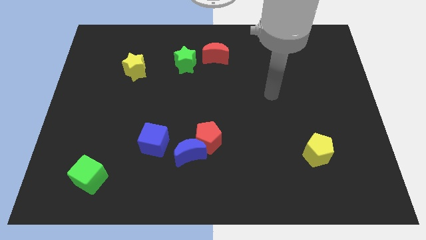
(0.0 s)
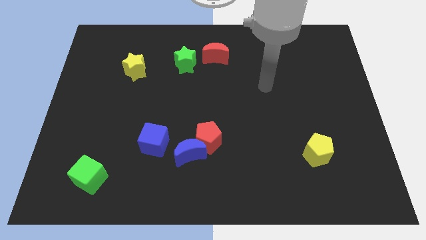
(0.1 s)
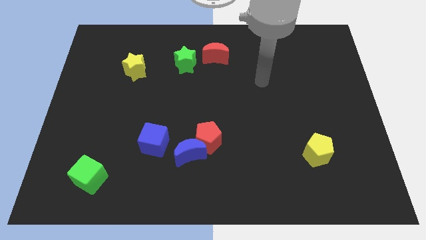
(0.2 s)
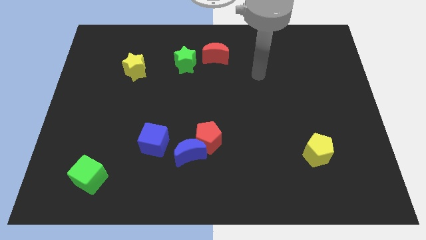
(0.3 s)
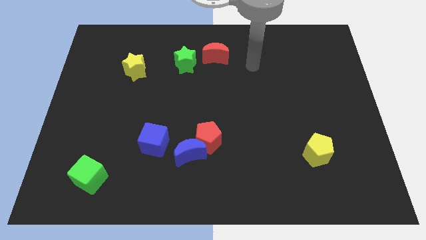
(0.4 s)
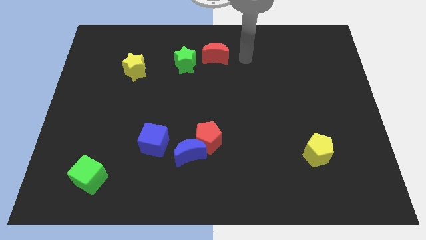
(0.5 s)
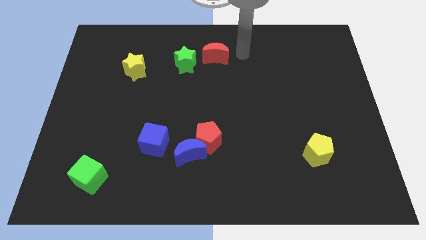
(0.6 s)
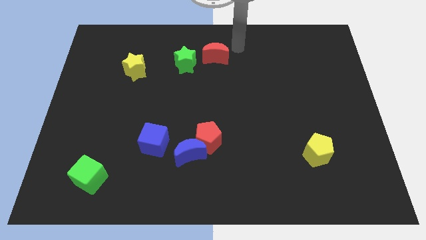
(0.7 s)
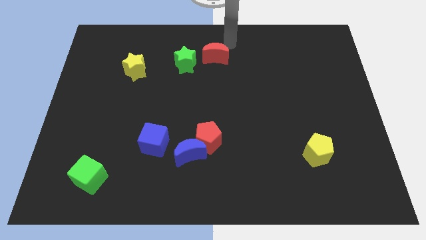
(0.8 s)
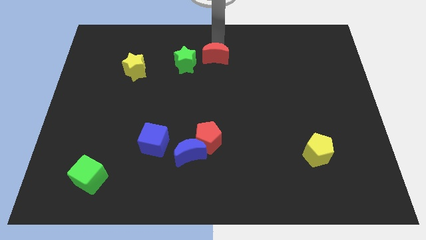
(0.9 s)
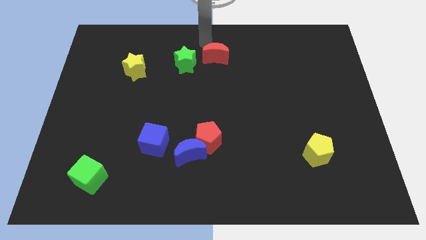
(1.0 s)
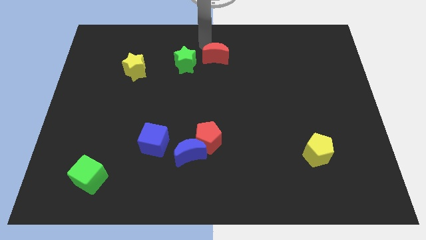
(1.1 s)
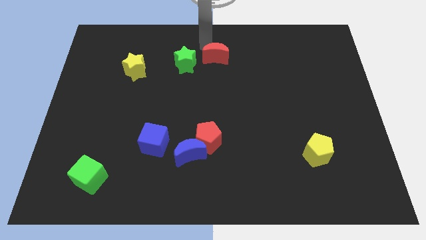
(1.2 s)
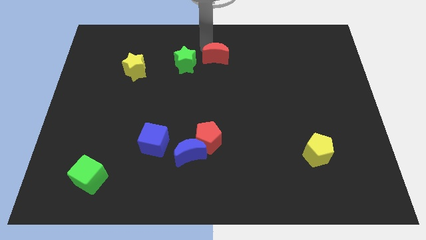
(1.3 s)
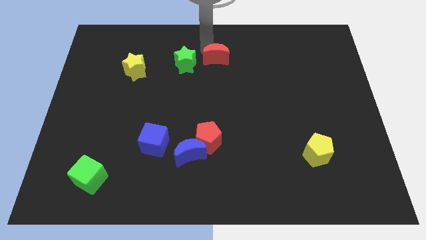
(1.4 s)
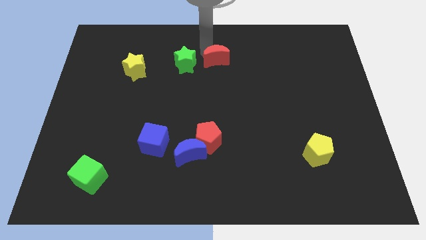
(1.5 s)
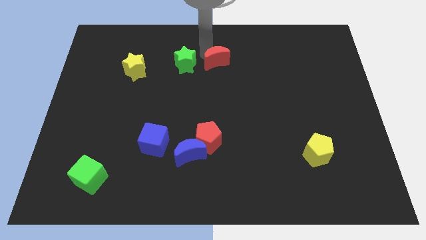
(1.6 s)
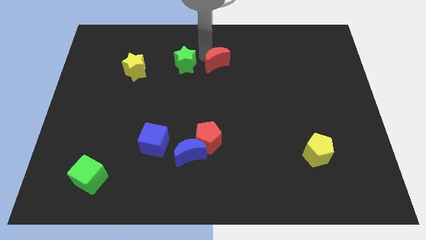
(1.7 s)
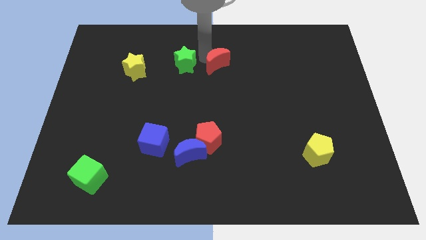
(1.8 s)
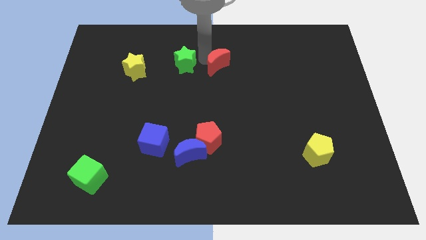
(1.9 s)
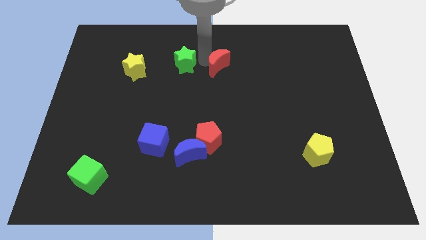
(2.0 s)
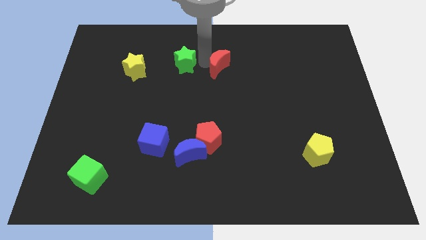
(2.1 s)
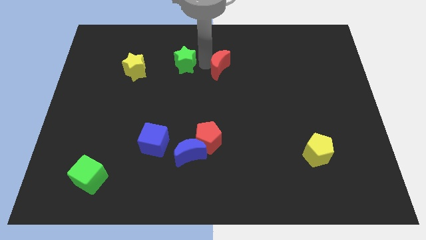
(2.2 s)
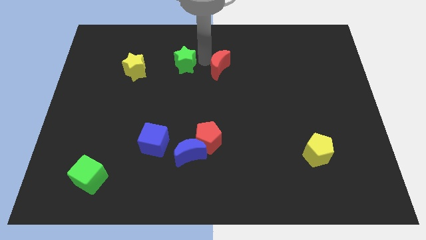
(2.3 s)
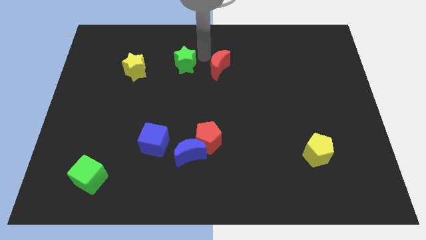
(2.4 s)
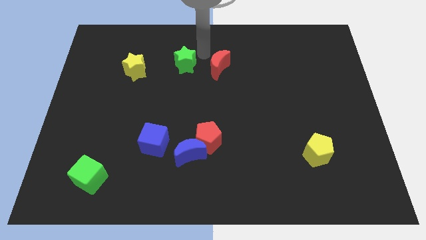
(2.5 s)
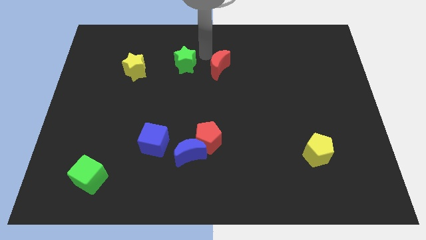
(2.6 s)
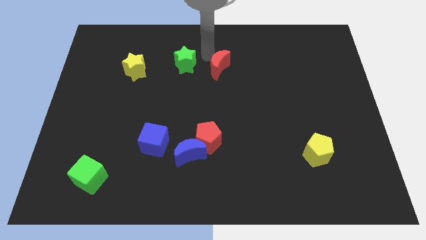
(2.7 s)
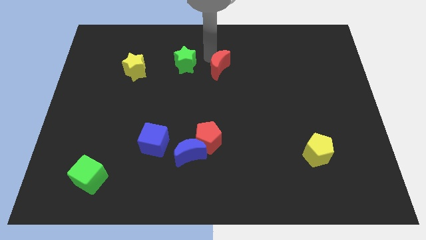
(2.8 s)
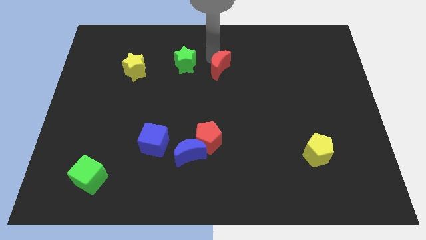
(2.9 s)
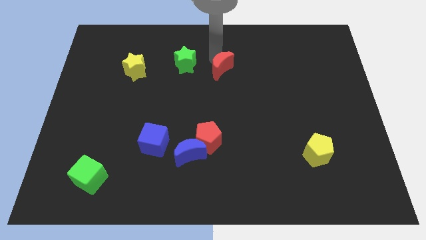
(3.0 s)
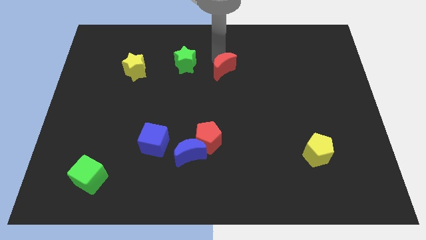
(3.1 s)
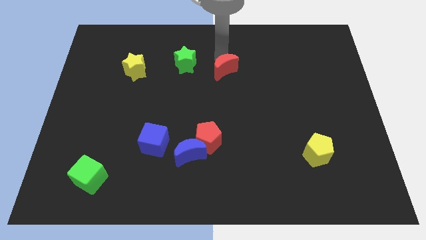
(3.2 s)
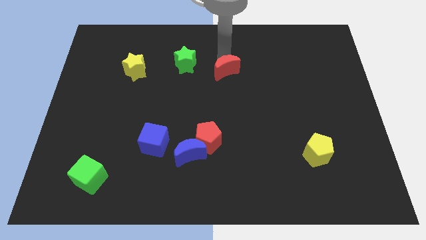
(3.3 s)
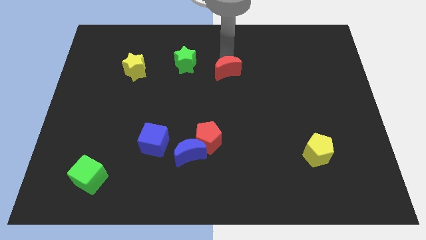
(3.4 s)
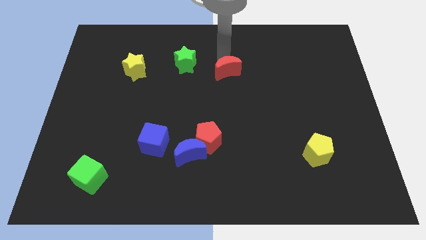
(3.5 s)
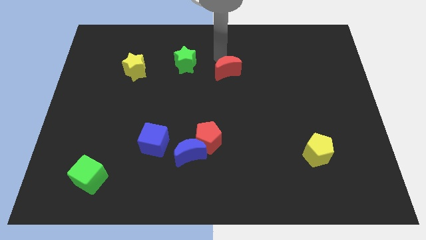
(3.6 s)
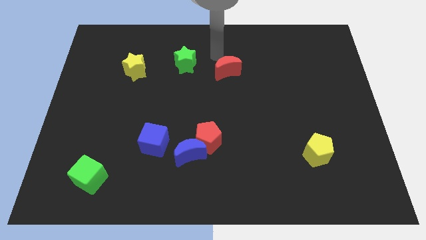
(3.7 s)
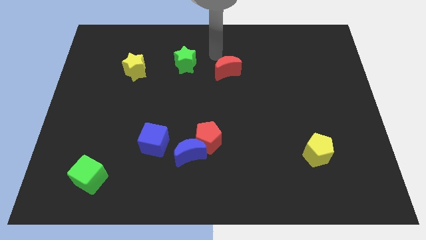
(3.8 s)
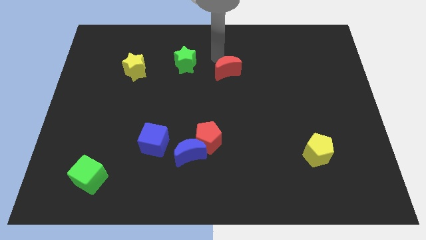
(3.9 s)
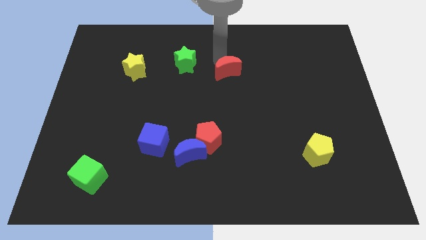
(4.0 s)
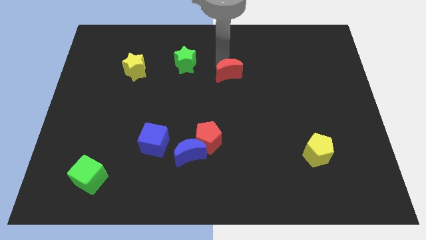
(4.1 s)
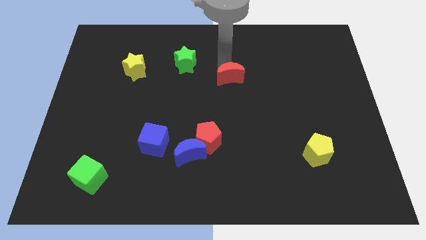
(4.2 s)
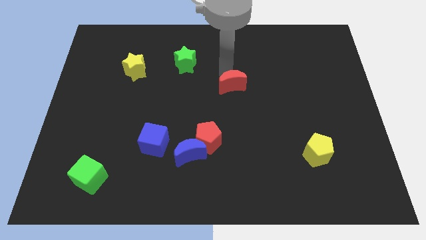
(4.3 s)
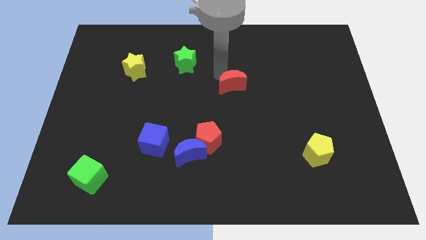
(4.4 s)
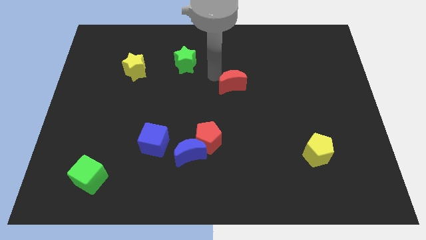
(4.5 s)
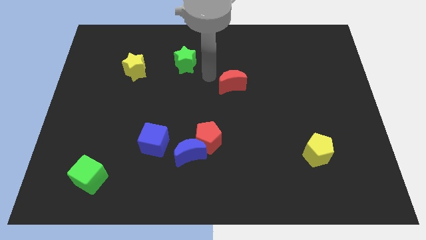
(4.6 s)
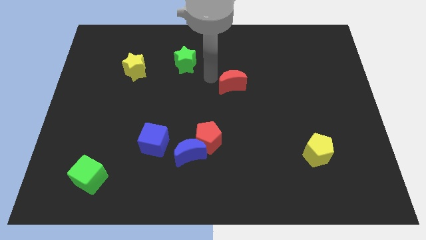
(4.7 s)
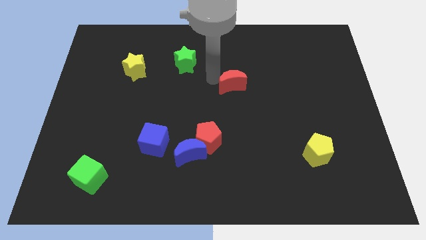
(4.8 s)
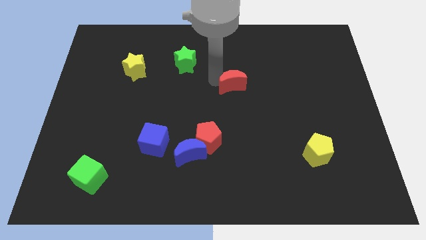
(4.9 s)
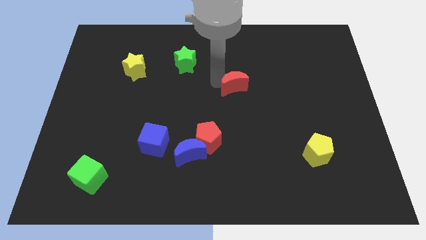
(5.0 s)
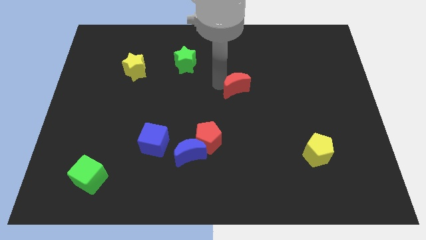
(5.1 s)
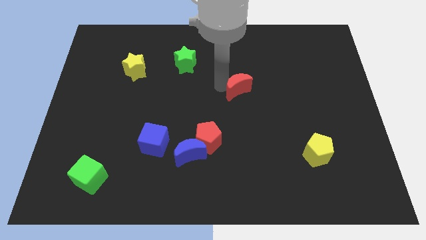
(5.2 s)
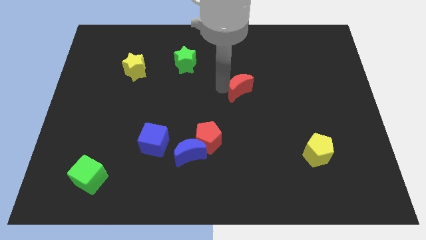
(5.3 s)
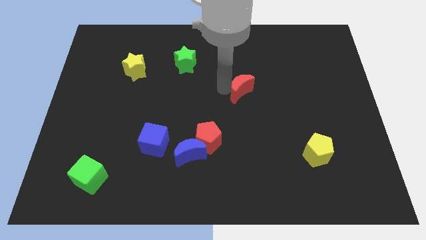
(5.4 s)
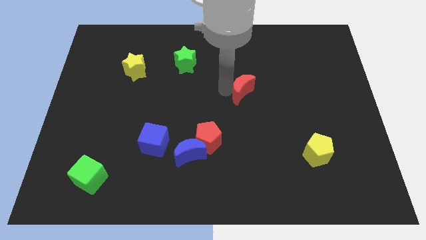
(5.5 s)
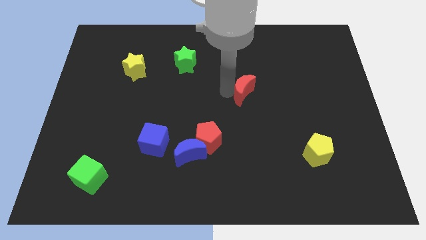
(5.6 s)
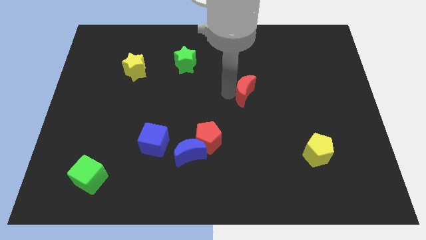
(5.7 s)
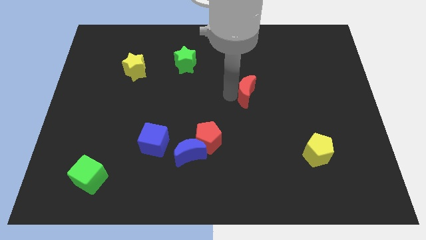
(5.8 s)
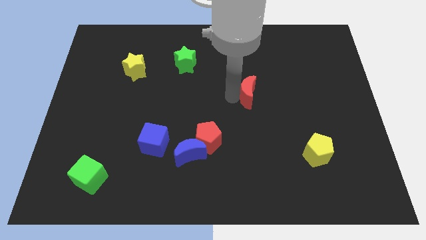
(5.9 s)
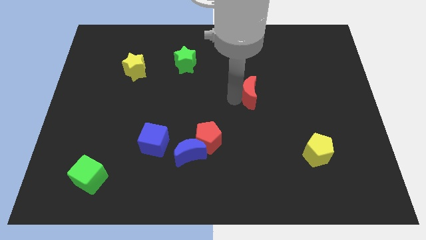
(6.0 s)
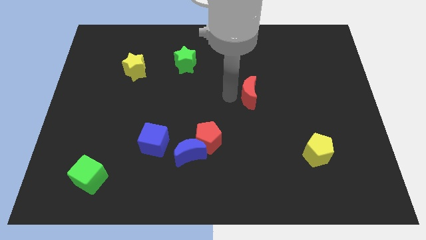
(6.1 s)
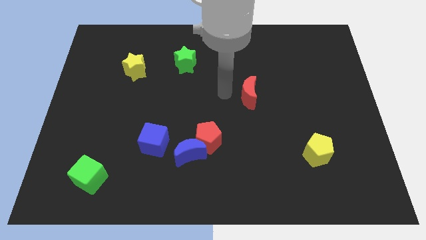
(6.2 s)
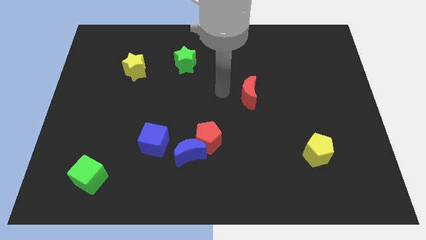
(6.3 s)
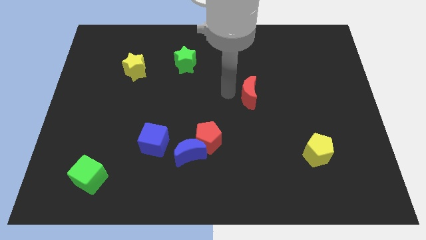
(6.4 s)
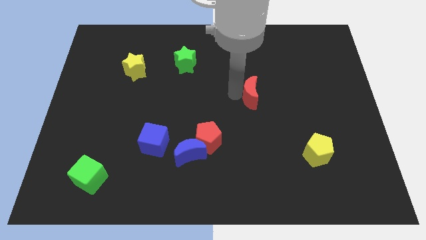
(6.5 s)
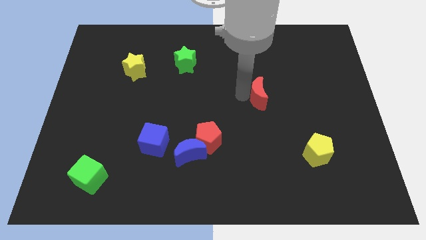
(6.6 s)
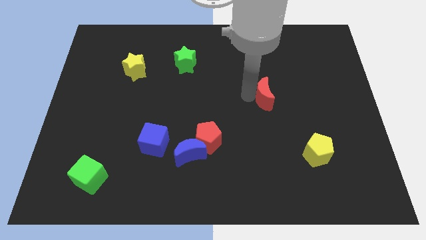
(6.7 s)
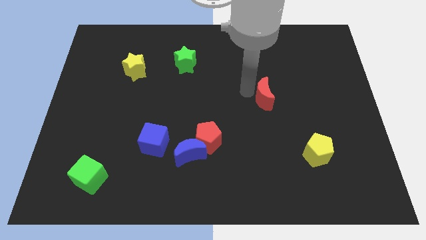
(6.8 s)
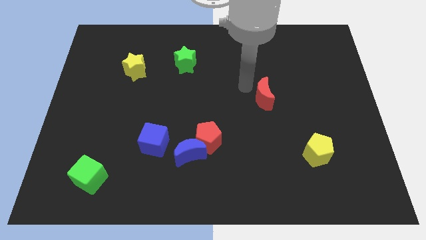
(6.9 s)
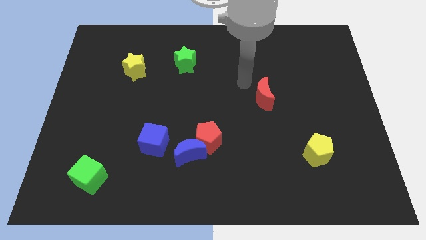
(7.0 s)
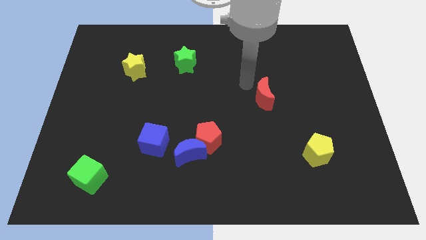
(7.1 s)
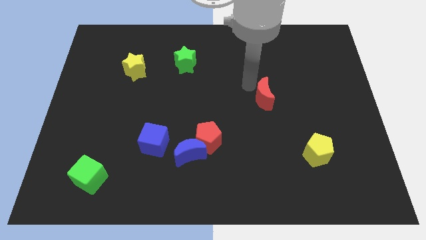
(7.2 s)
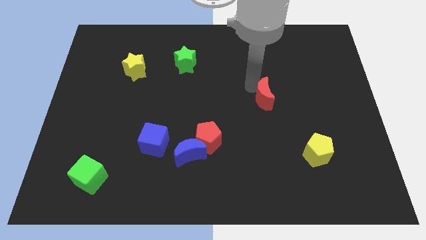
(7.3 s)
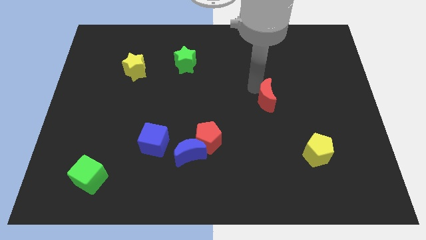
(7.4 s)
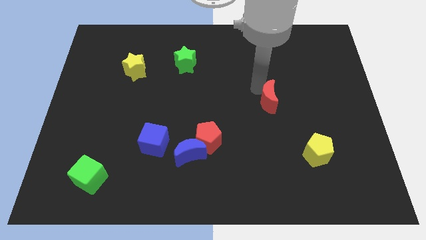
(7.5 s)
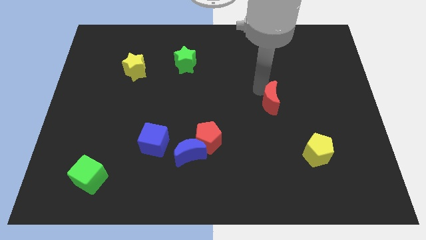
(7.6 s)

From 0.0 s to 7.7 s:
push the red moon downwards and right diagonally

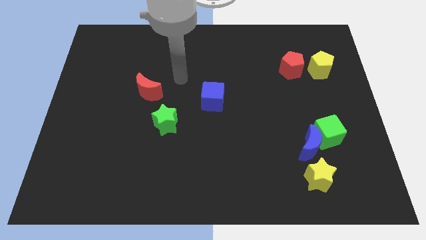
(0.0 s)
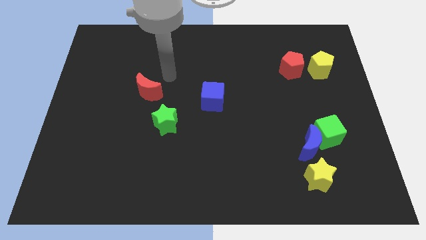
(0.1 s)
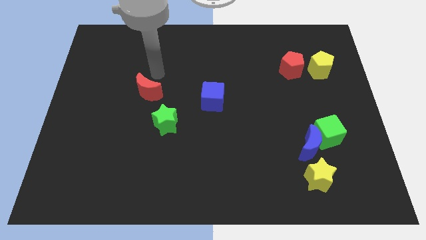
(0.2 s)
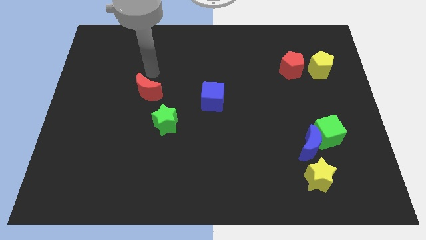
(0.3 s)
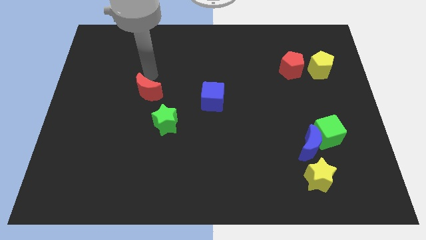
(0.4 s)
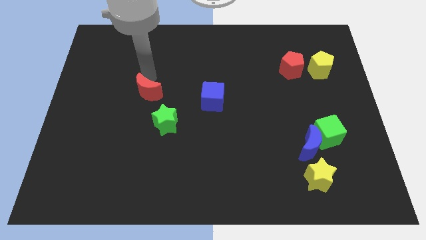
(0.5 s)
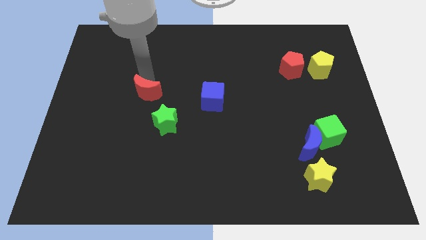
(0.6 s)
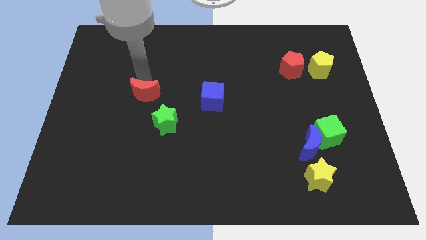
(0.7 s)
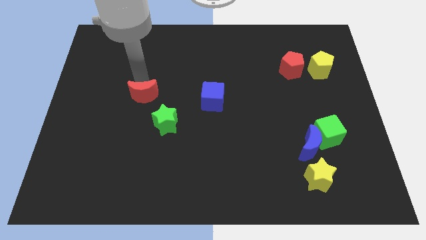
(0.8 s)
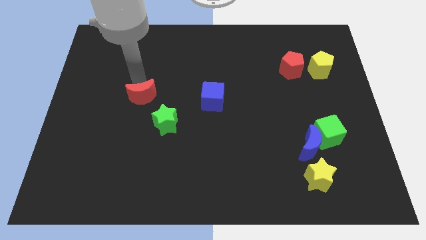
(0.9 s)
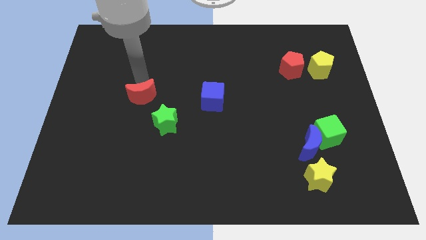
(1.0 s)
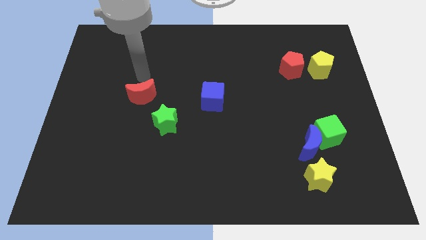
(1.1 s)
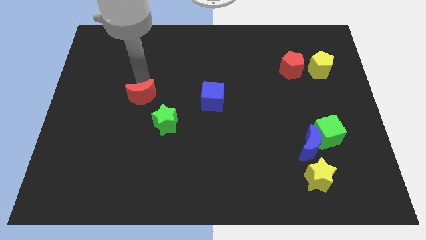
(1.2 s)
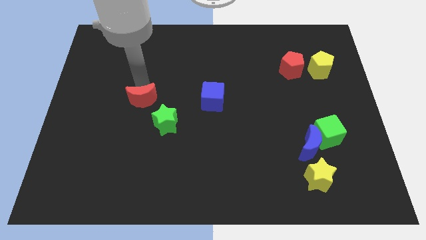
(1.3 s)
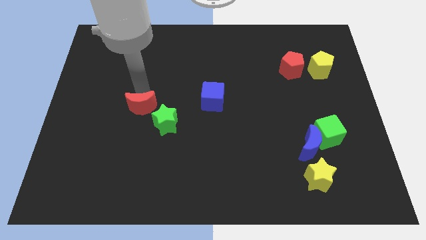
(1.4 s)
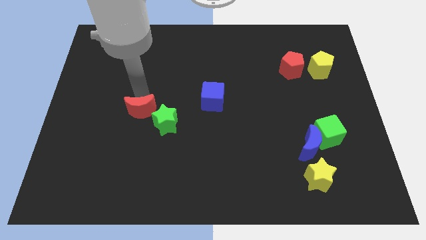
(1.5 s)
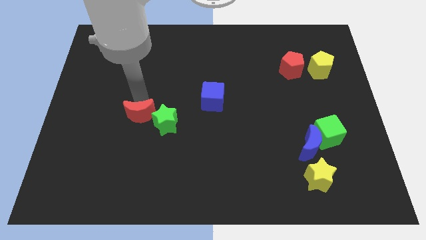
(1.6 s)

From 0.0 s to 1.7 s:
slightly slide the red moon down
